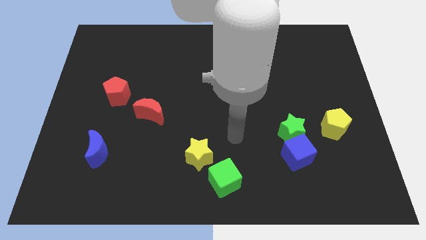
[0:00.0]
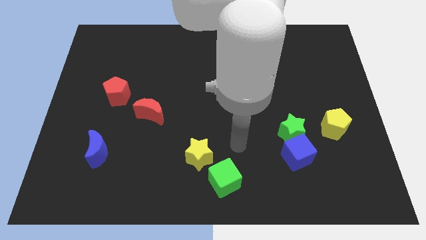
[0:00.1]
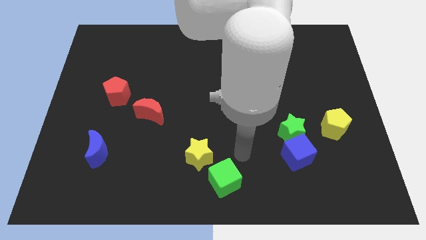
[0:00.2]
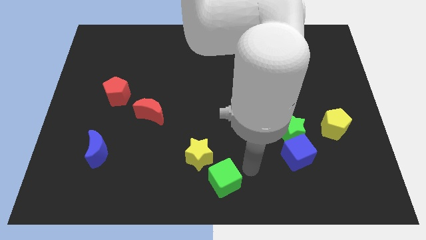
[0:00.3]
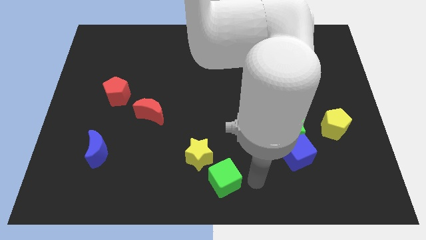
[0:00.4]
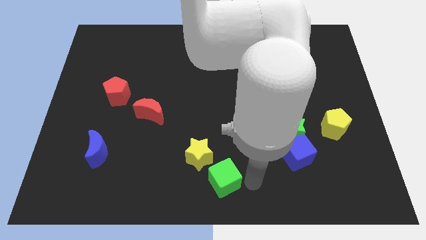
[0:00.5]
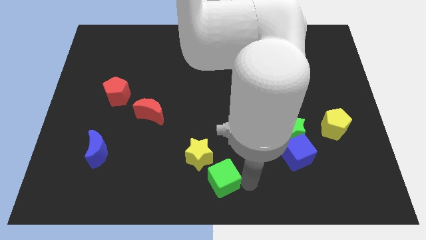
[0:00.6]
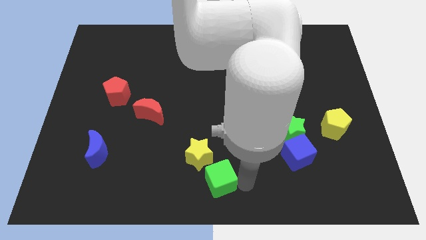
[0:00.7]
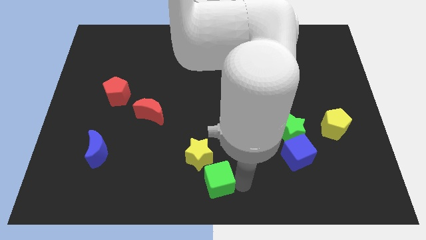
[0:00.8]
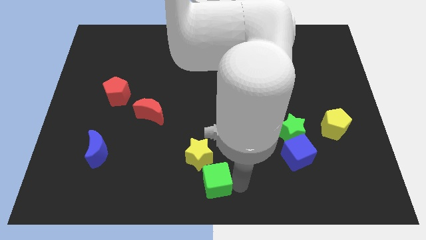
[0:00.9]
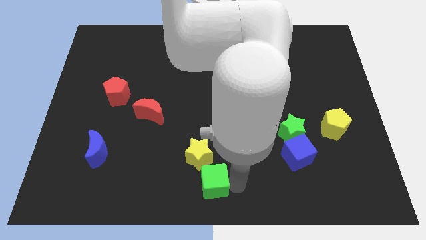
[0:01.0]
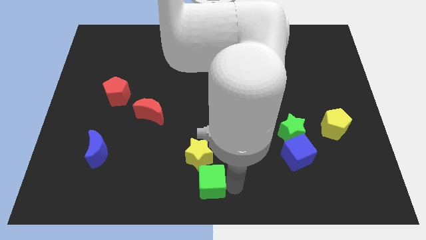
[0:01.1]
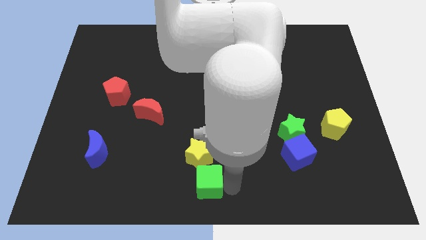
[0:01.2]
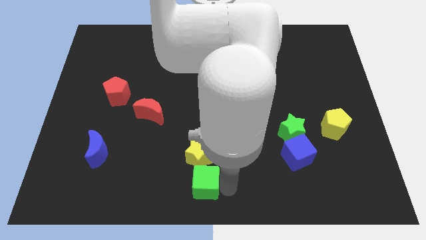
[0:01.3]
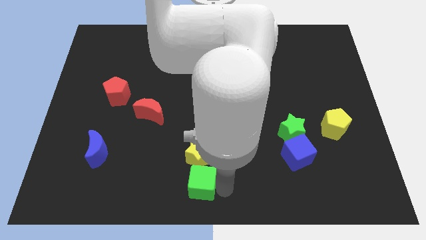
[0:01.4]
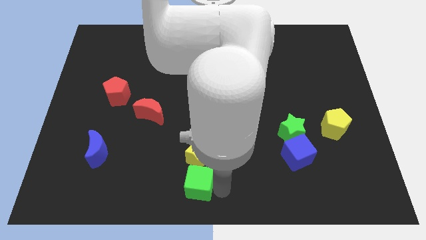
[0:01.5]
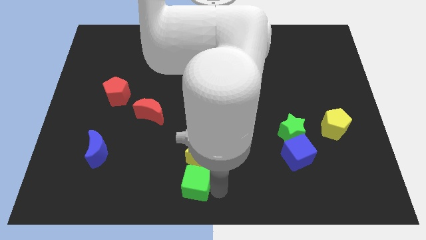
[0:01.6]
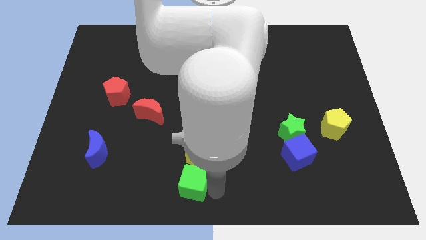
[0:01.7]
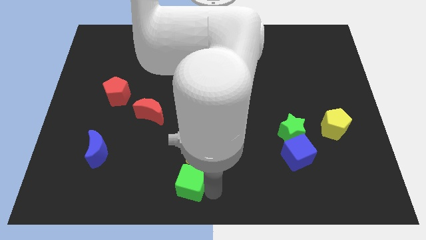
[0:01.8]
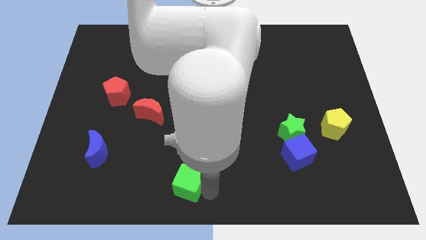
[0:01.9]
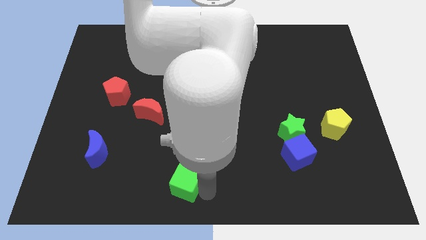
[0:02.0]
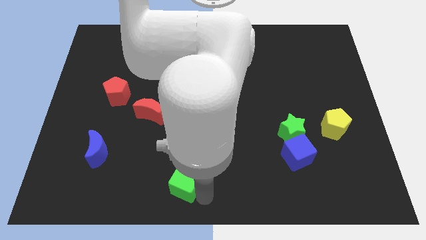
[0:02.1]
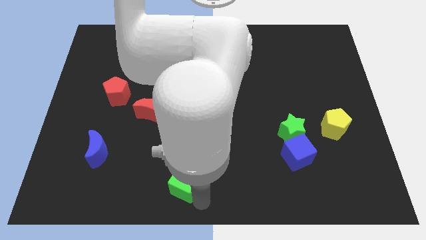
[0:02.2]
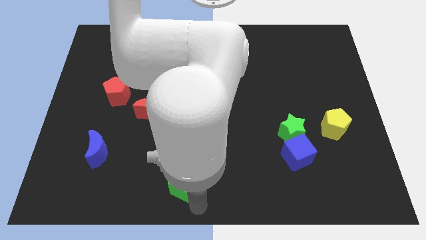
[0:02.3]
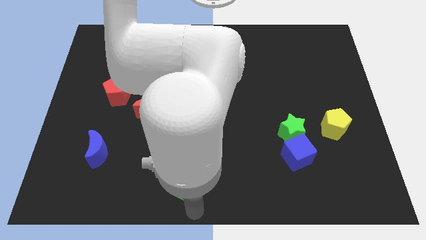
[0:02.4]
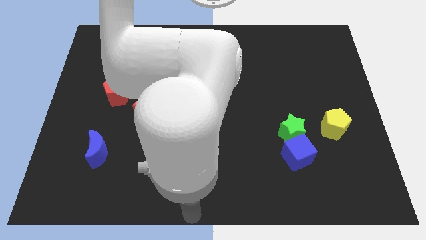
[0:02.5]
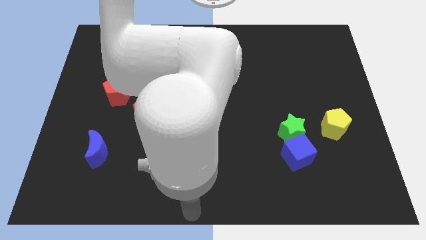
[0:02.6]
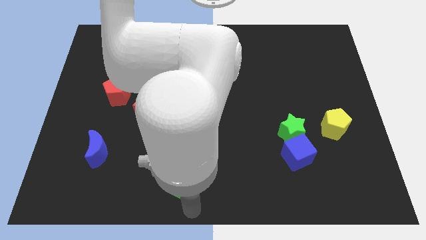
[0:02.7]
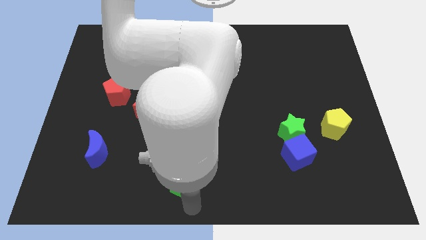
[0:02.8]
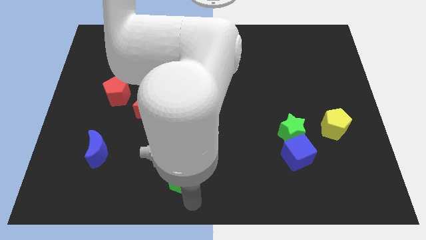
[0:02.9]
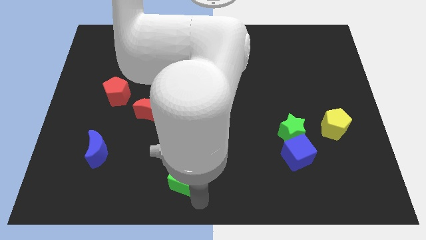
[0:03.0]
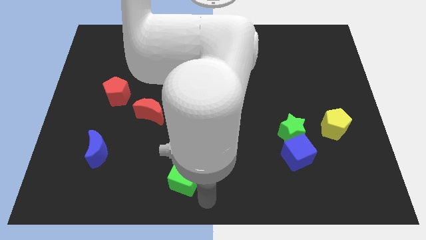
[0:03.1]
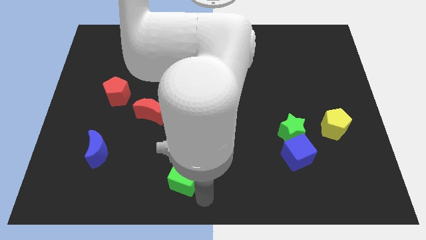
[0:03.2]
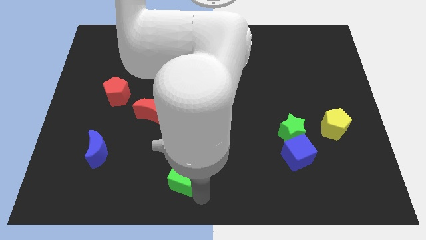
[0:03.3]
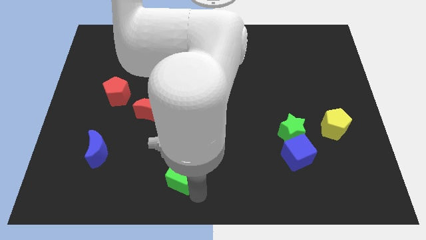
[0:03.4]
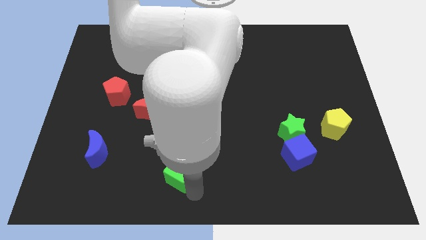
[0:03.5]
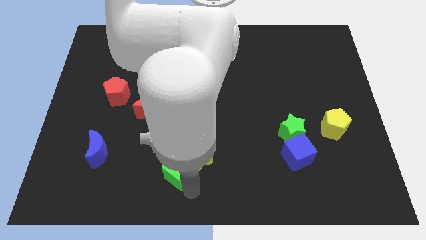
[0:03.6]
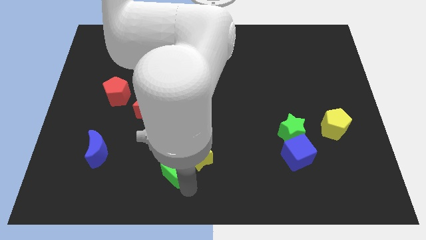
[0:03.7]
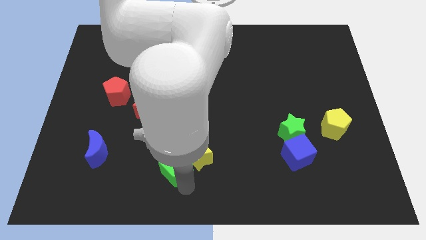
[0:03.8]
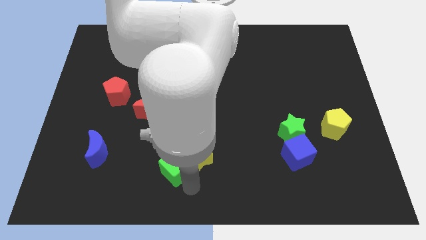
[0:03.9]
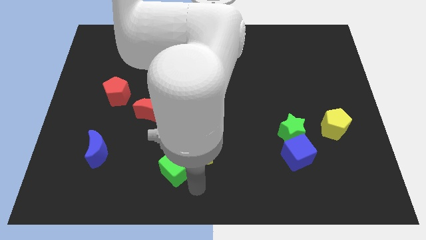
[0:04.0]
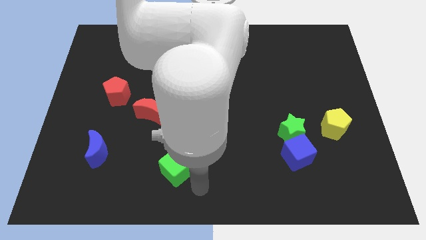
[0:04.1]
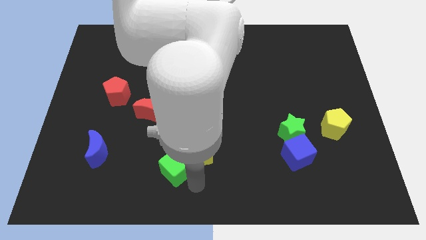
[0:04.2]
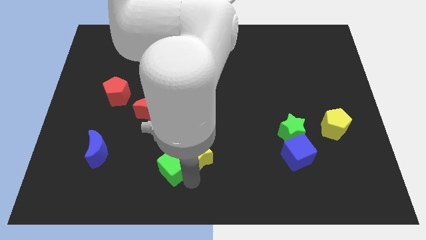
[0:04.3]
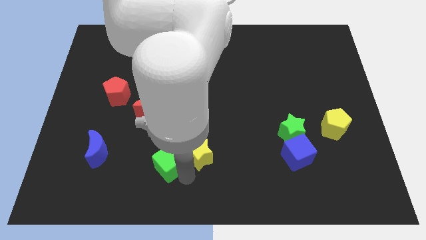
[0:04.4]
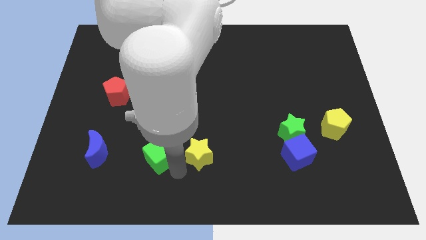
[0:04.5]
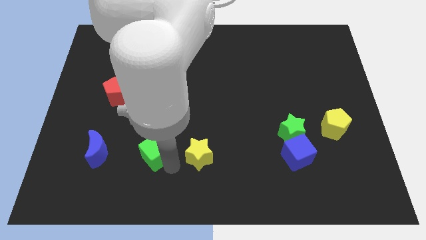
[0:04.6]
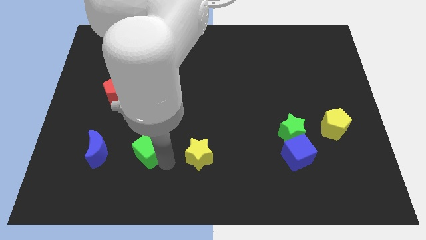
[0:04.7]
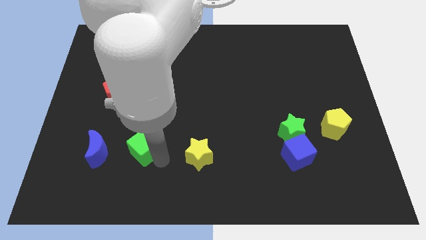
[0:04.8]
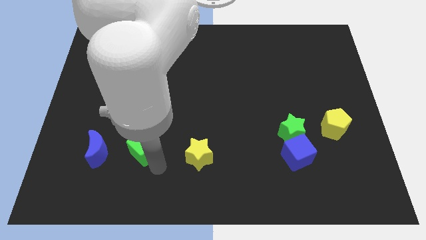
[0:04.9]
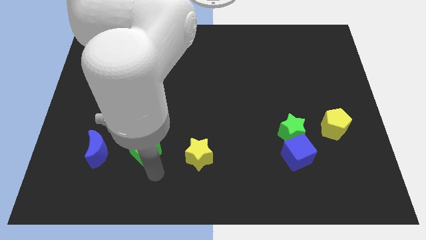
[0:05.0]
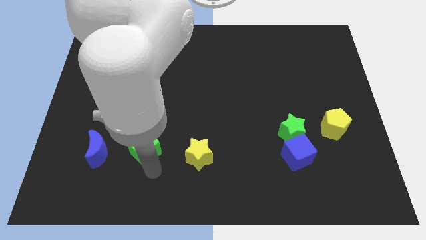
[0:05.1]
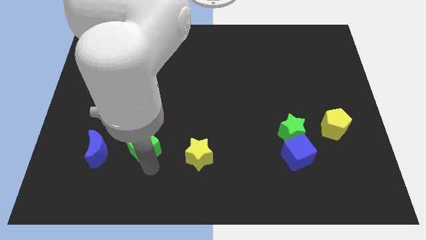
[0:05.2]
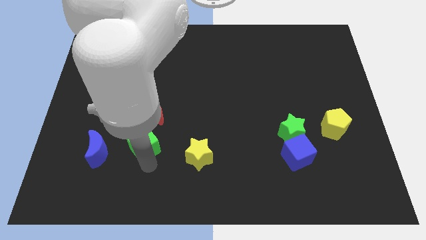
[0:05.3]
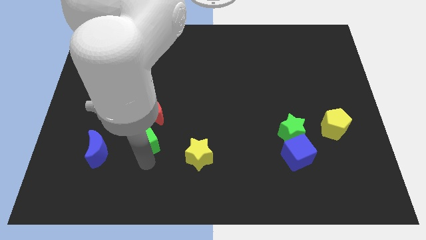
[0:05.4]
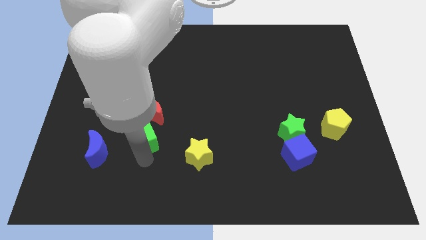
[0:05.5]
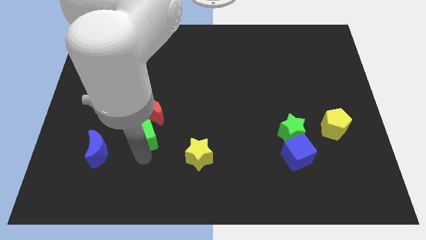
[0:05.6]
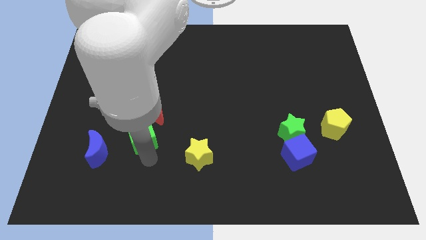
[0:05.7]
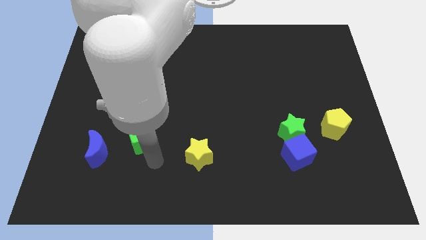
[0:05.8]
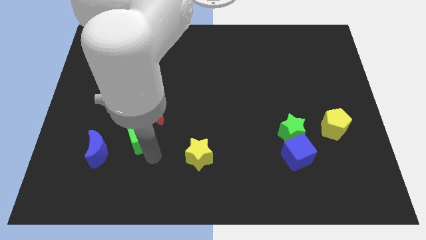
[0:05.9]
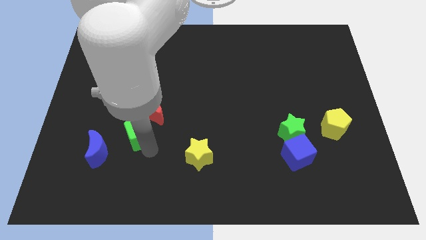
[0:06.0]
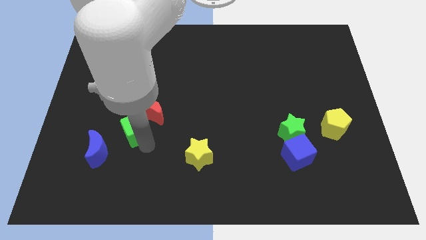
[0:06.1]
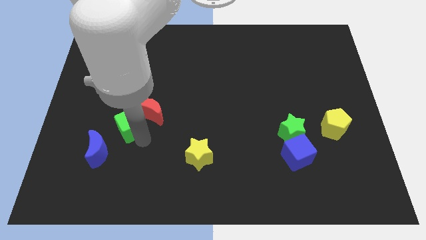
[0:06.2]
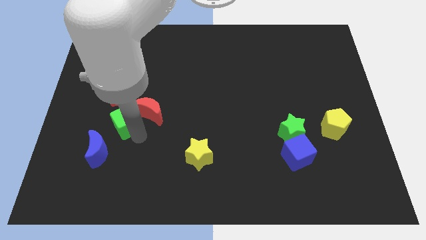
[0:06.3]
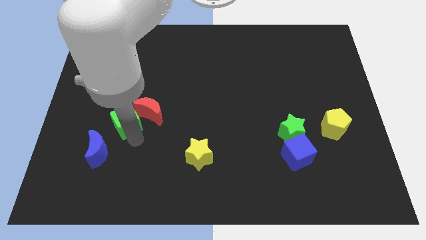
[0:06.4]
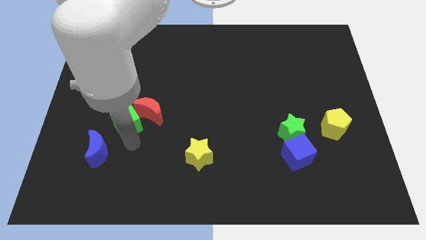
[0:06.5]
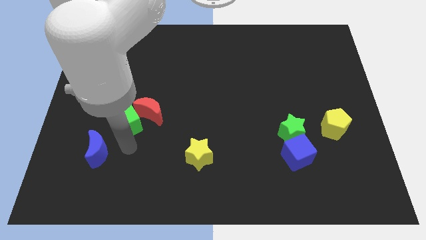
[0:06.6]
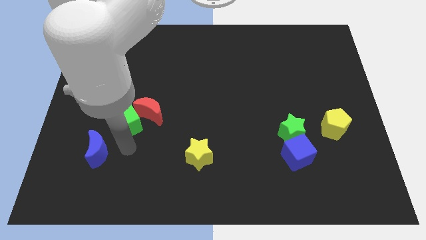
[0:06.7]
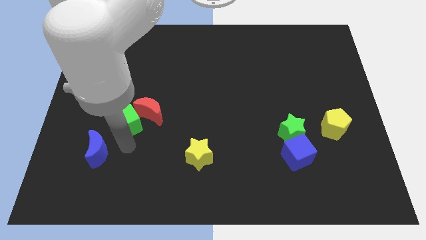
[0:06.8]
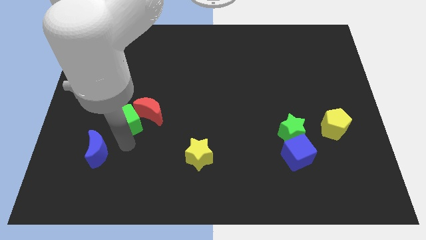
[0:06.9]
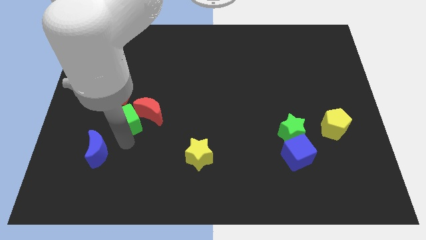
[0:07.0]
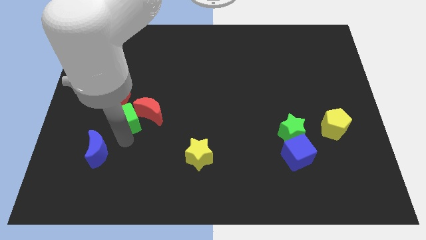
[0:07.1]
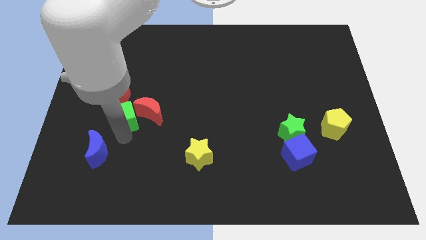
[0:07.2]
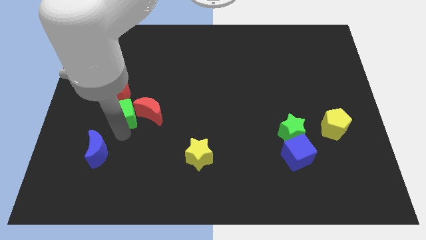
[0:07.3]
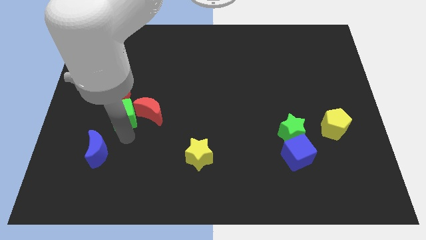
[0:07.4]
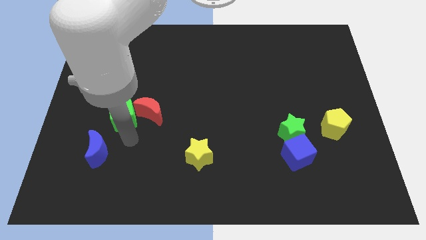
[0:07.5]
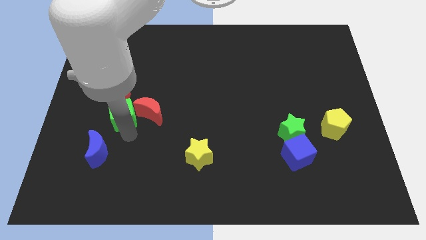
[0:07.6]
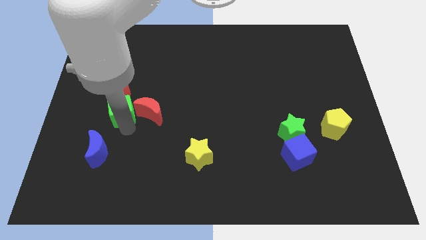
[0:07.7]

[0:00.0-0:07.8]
slide the green cube to the red pentagon
